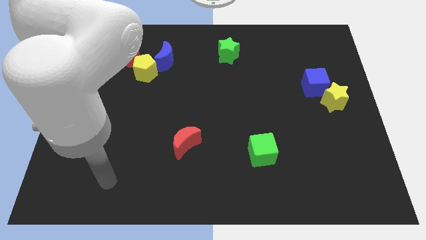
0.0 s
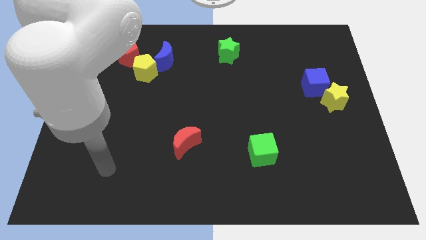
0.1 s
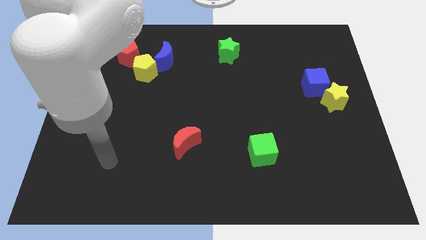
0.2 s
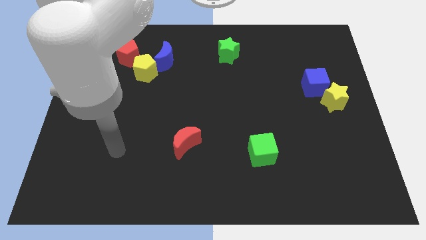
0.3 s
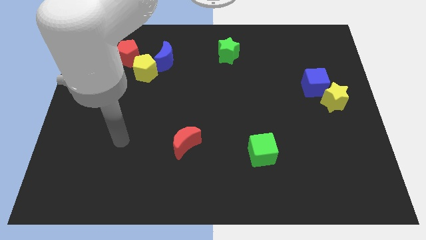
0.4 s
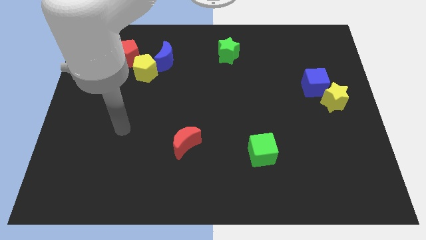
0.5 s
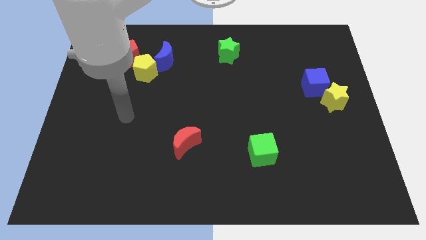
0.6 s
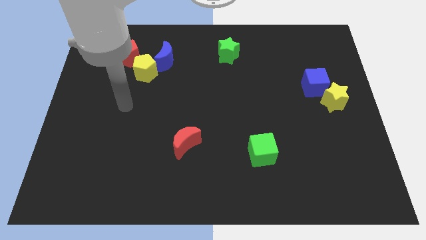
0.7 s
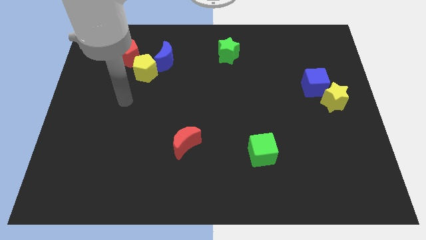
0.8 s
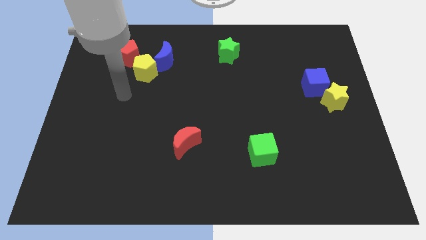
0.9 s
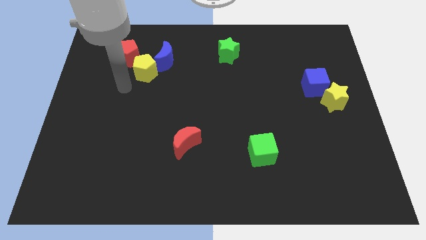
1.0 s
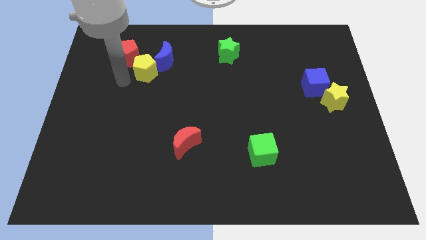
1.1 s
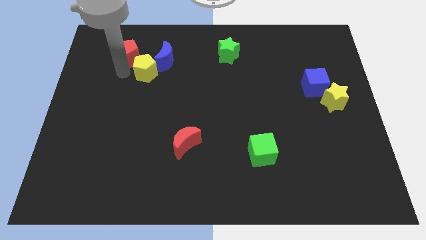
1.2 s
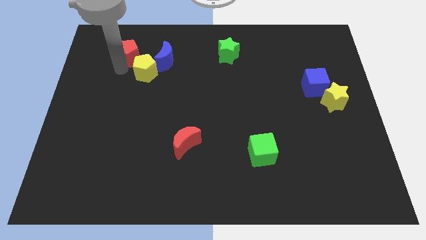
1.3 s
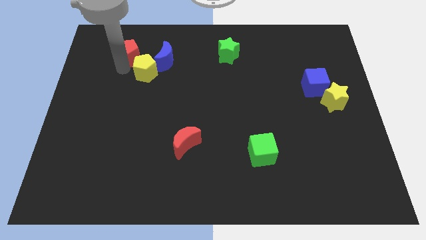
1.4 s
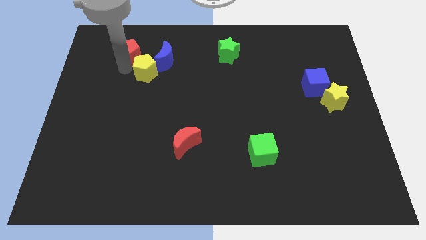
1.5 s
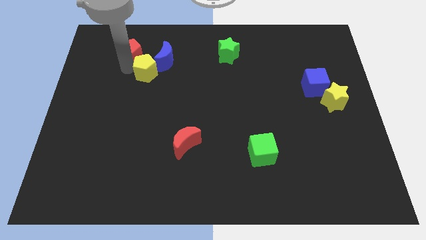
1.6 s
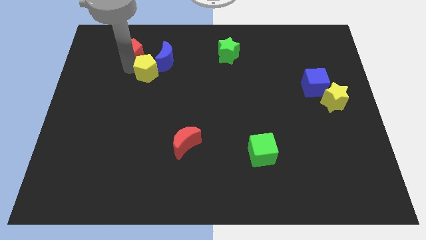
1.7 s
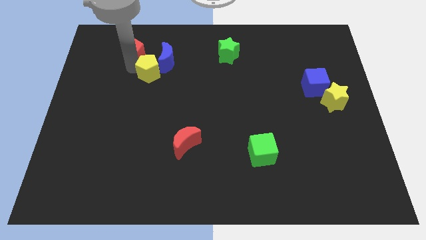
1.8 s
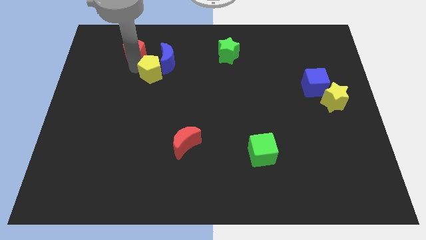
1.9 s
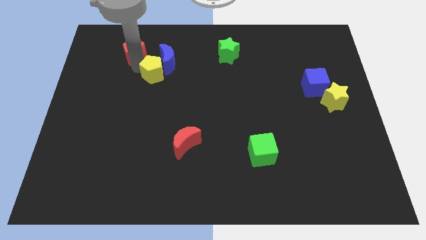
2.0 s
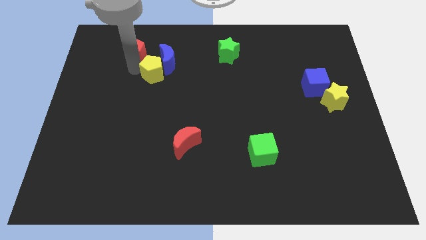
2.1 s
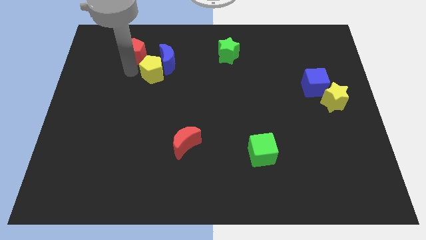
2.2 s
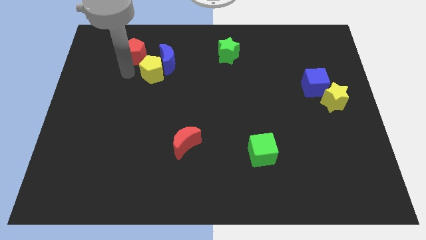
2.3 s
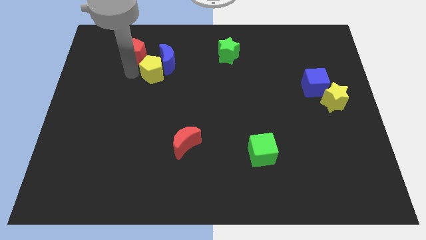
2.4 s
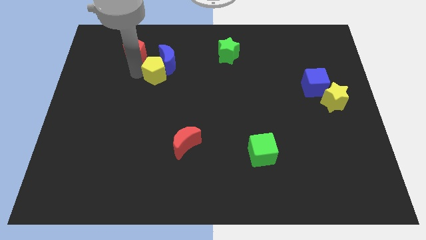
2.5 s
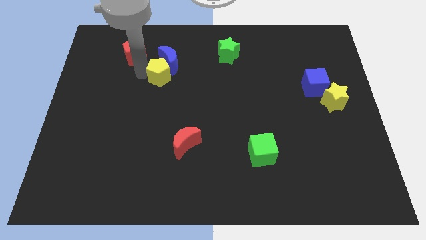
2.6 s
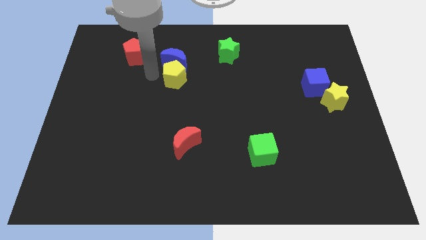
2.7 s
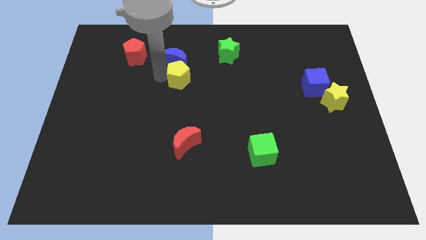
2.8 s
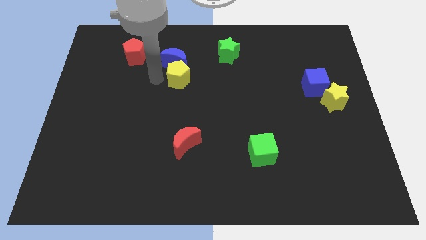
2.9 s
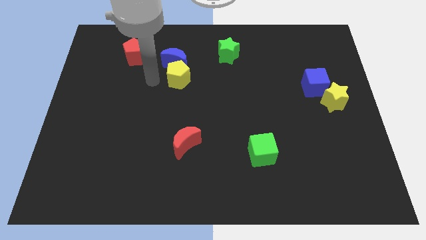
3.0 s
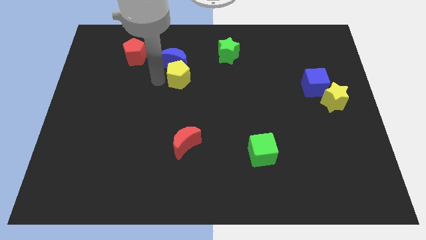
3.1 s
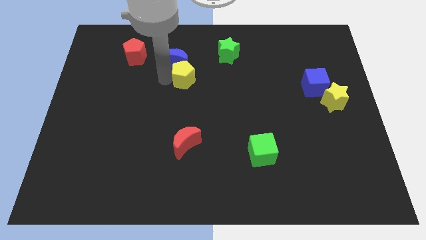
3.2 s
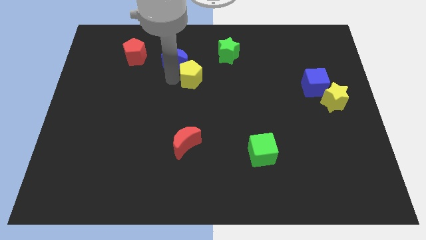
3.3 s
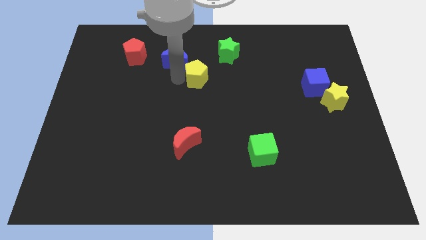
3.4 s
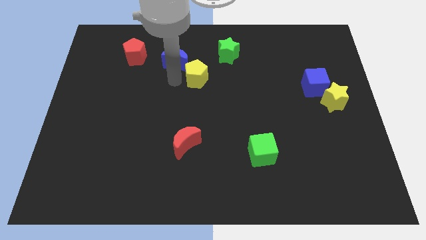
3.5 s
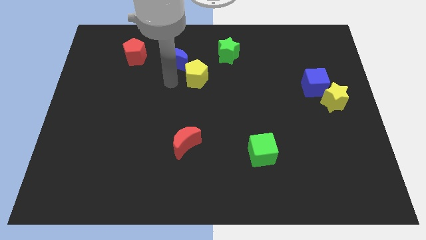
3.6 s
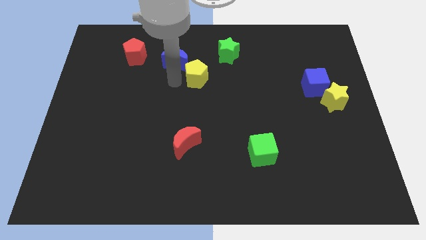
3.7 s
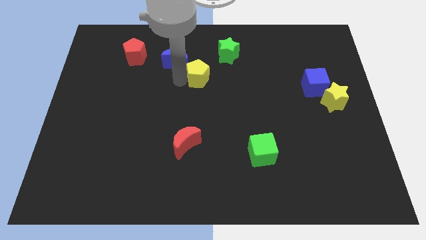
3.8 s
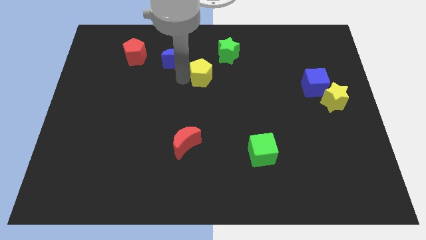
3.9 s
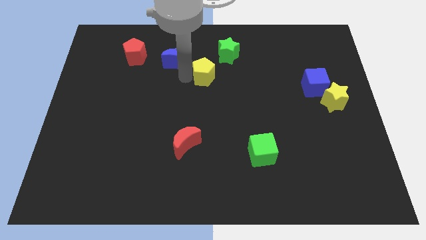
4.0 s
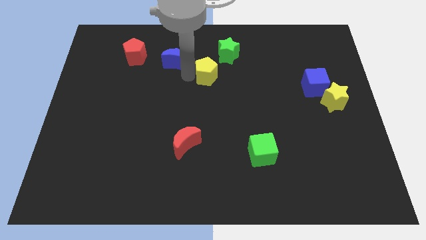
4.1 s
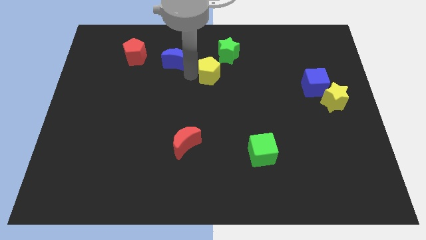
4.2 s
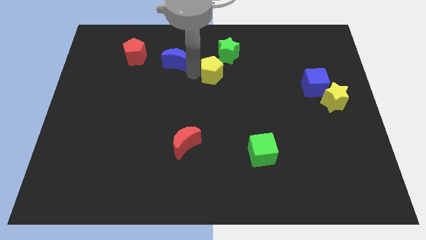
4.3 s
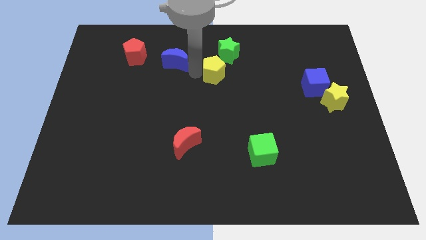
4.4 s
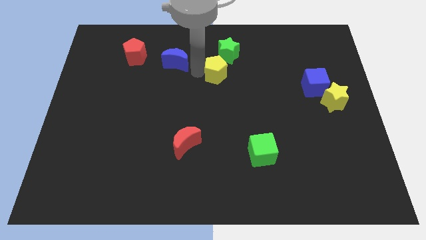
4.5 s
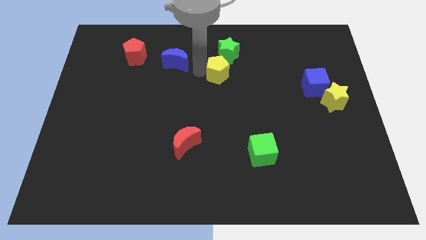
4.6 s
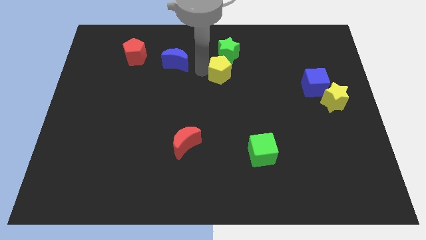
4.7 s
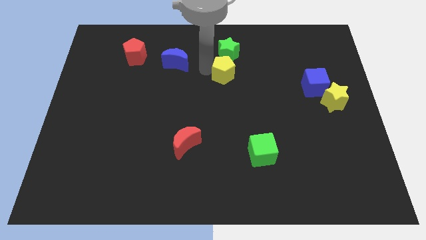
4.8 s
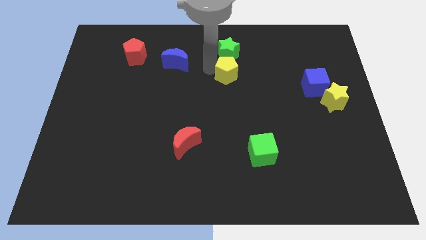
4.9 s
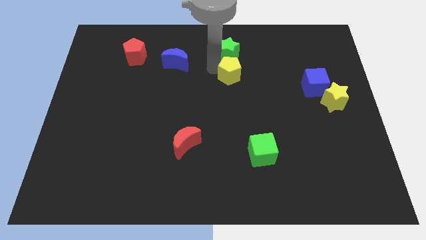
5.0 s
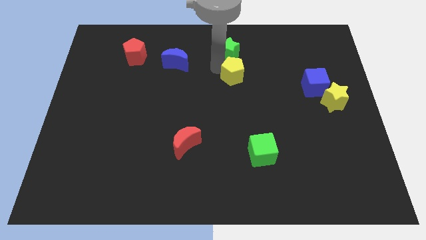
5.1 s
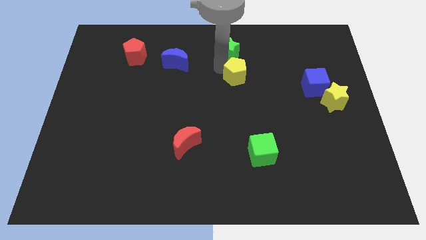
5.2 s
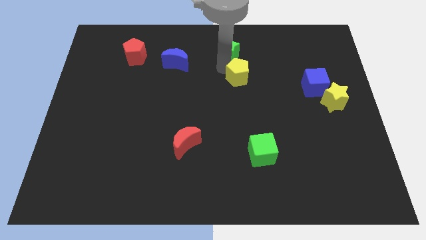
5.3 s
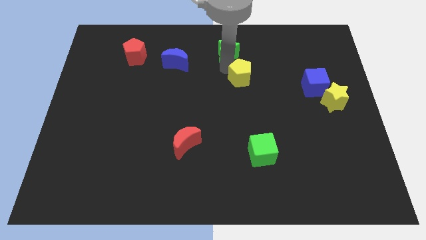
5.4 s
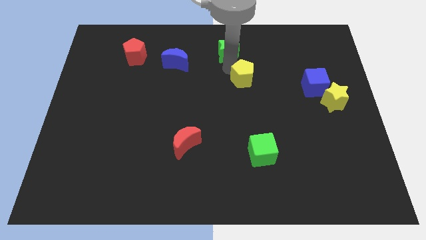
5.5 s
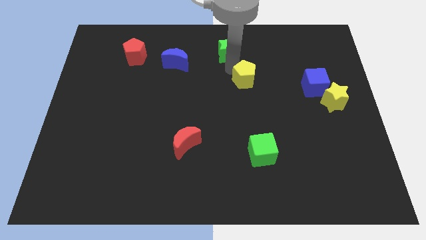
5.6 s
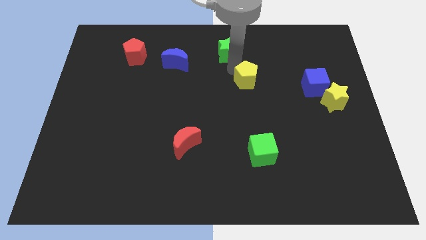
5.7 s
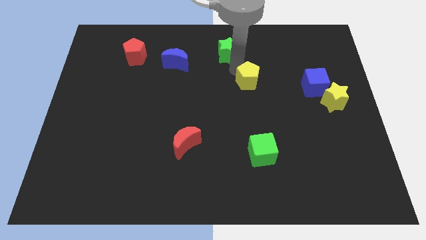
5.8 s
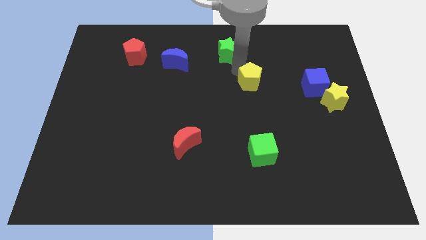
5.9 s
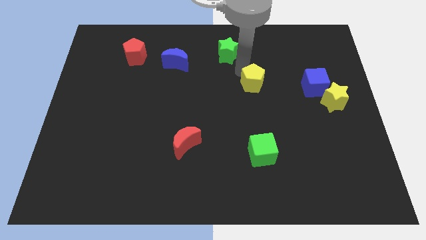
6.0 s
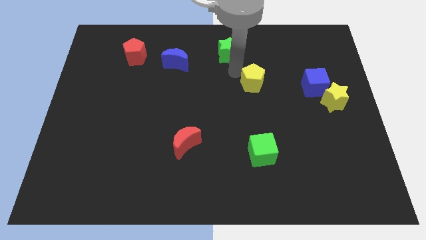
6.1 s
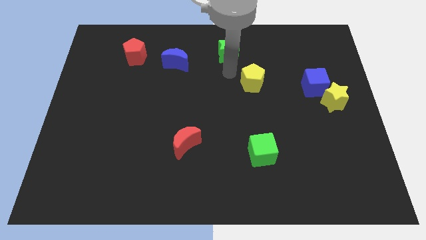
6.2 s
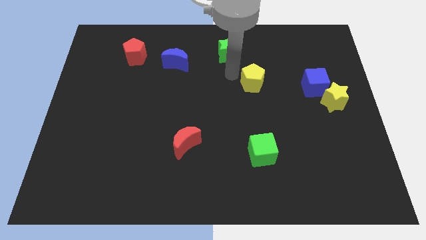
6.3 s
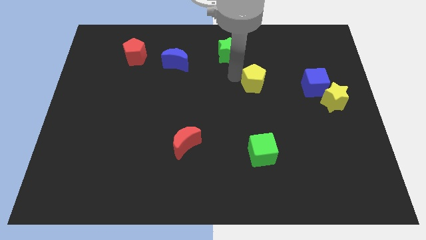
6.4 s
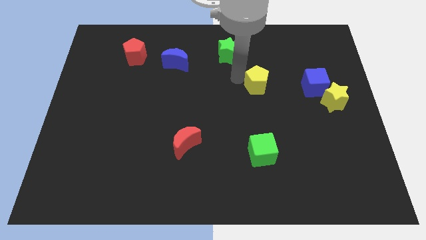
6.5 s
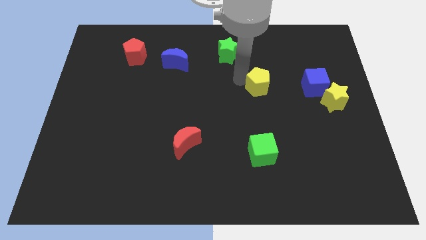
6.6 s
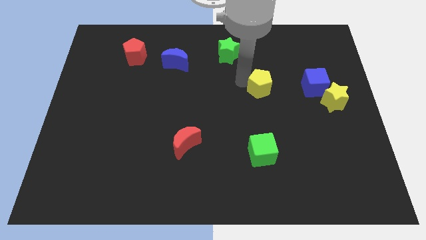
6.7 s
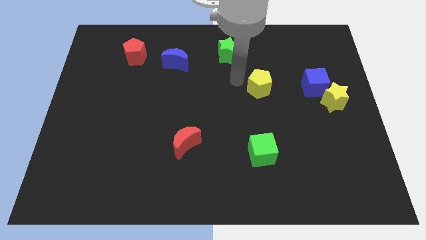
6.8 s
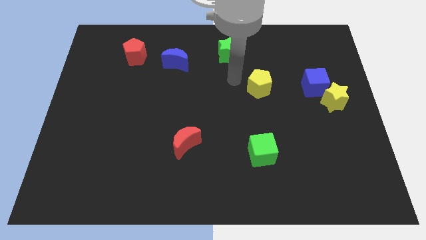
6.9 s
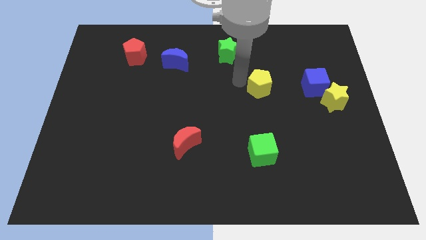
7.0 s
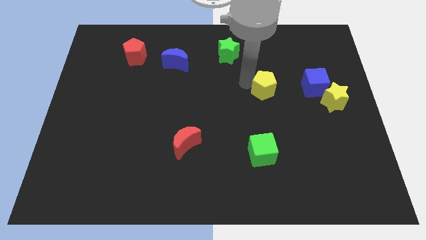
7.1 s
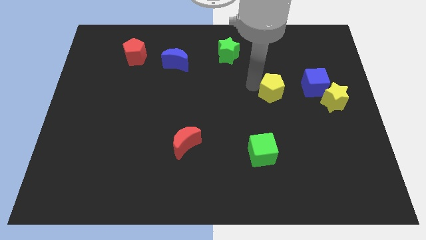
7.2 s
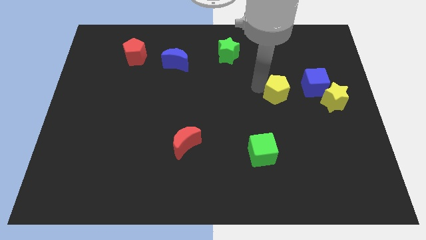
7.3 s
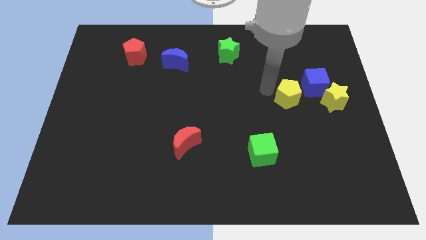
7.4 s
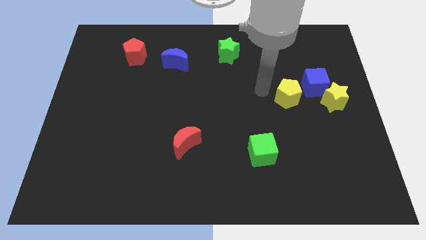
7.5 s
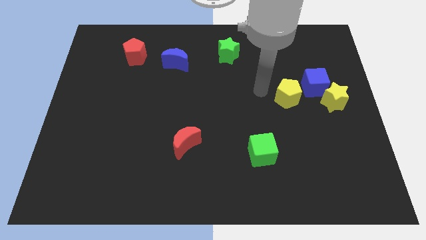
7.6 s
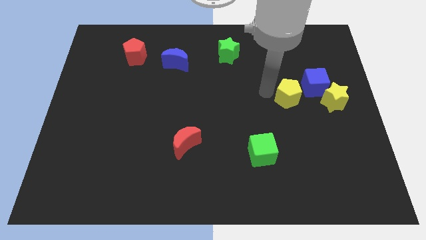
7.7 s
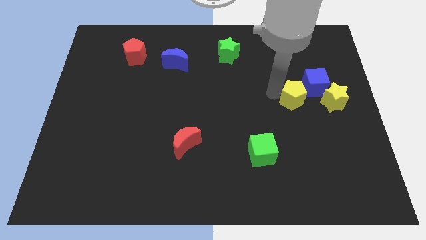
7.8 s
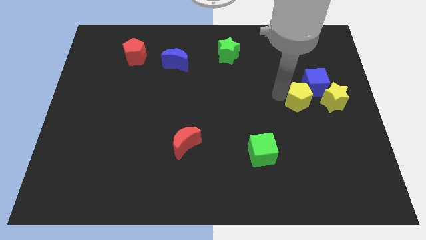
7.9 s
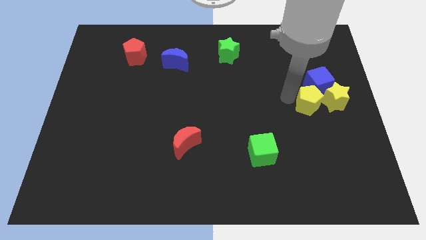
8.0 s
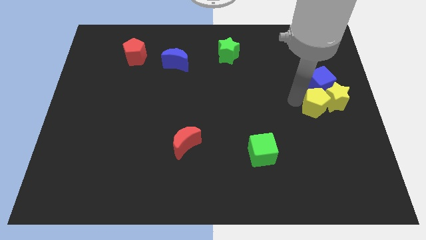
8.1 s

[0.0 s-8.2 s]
slide the yellow pentagon next to the yellow star
